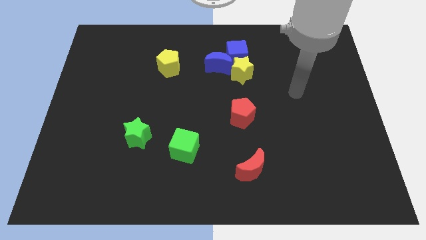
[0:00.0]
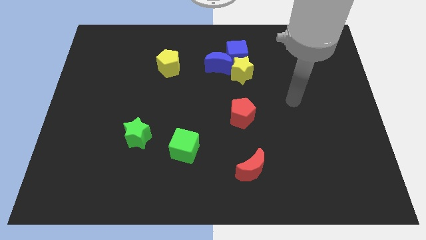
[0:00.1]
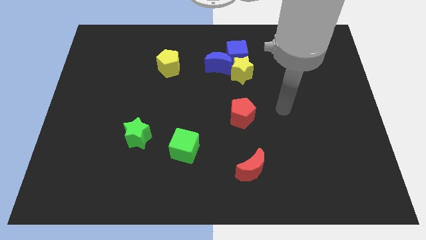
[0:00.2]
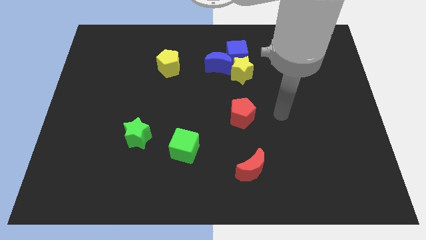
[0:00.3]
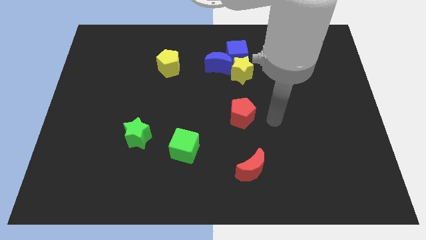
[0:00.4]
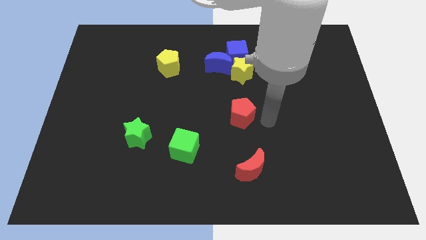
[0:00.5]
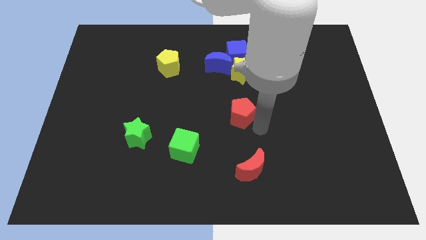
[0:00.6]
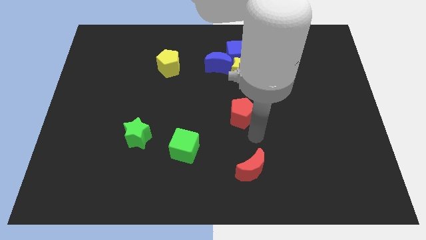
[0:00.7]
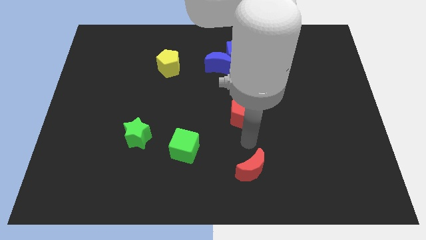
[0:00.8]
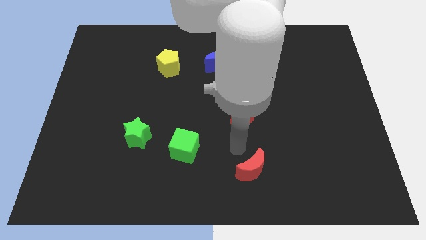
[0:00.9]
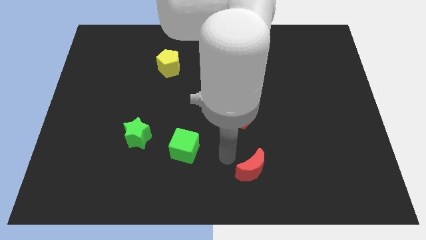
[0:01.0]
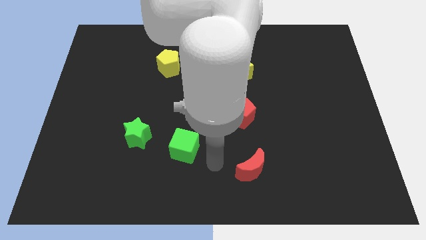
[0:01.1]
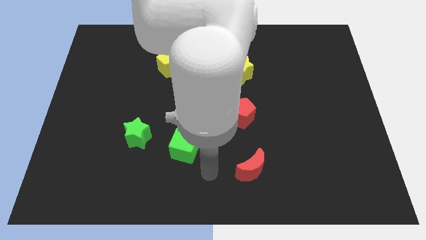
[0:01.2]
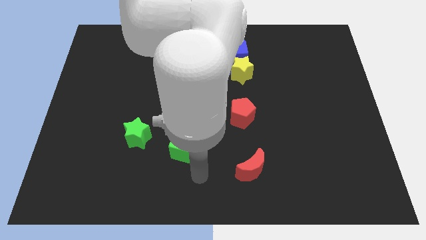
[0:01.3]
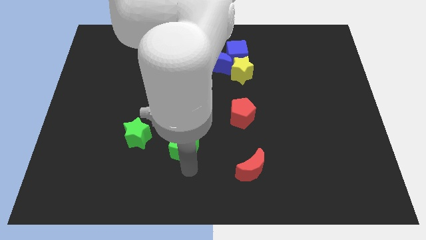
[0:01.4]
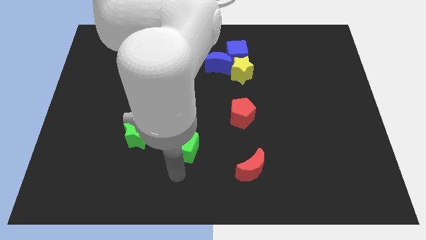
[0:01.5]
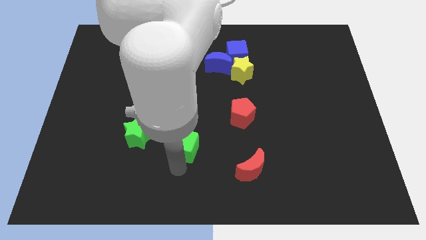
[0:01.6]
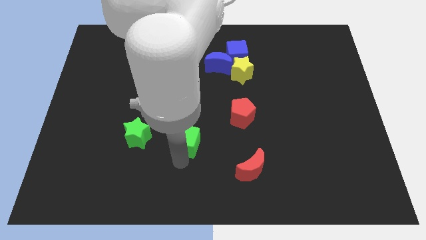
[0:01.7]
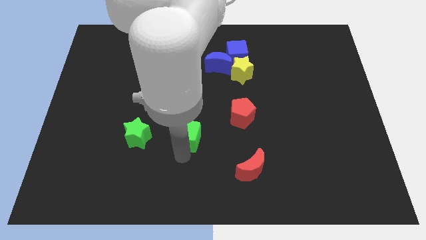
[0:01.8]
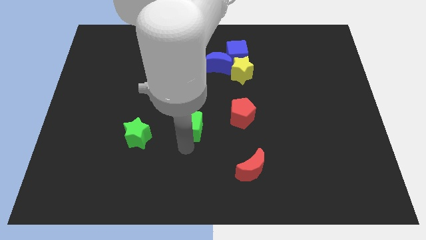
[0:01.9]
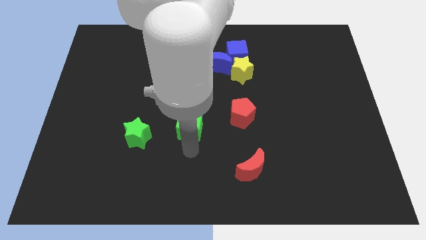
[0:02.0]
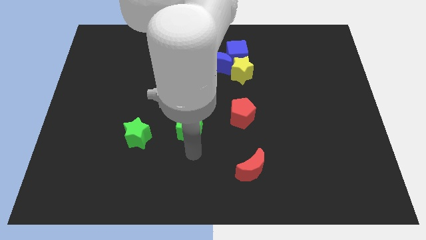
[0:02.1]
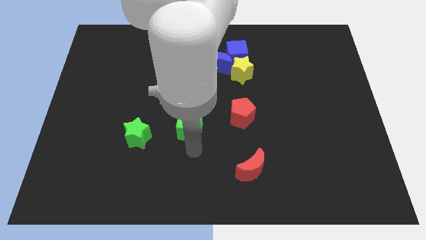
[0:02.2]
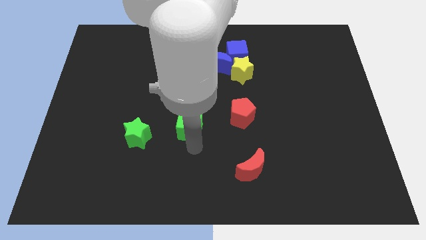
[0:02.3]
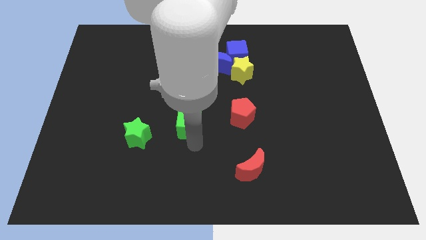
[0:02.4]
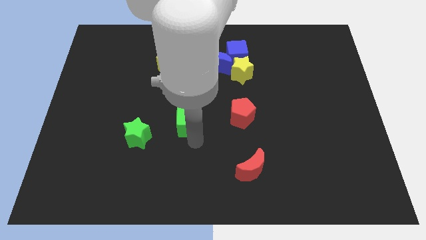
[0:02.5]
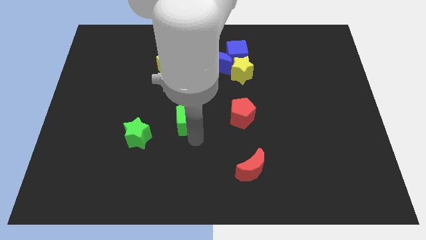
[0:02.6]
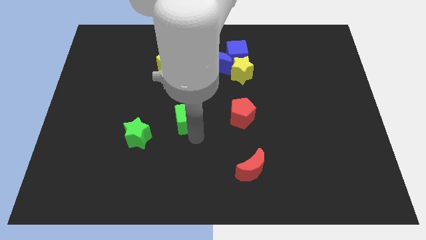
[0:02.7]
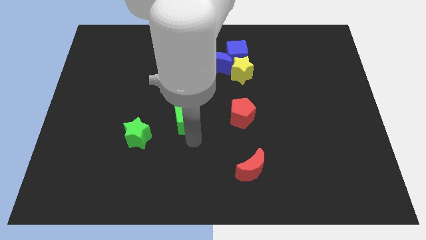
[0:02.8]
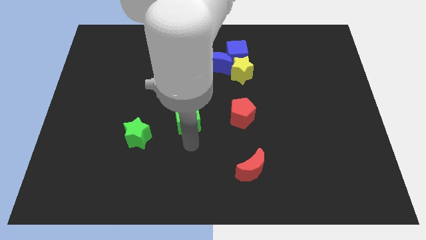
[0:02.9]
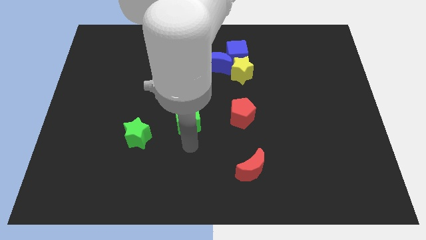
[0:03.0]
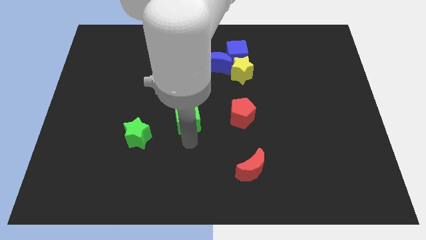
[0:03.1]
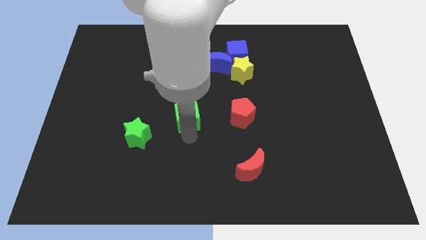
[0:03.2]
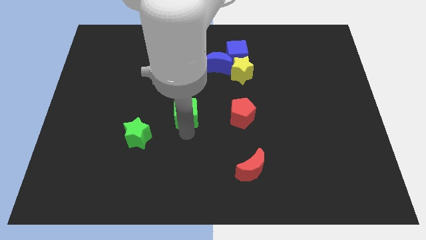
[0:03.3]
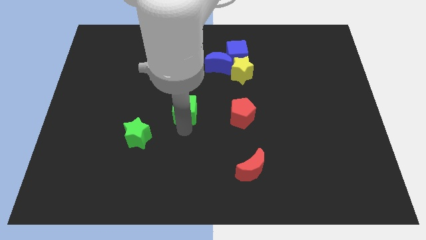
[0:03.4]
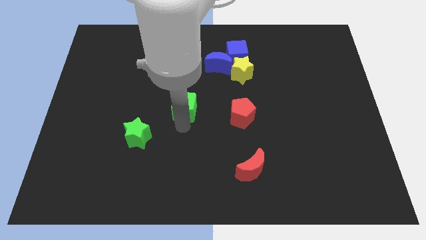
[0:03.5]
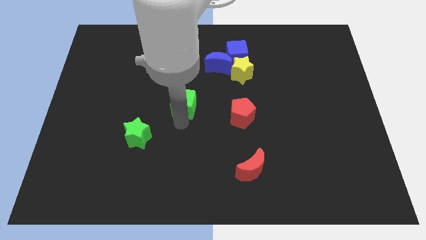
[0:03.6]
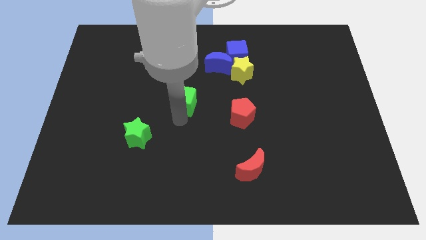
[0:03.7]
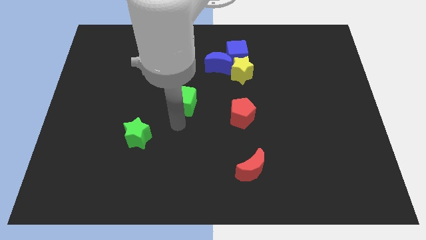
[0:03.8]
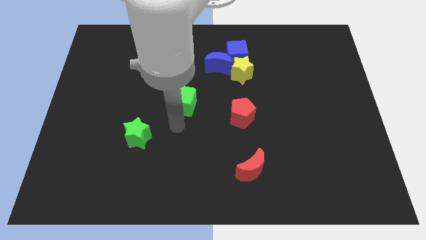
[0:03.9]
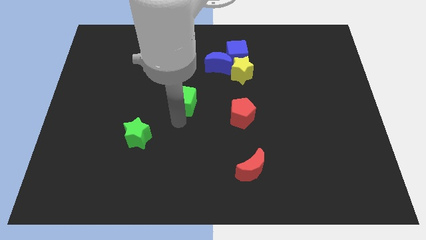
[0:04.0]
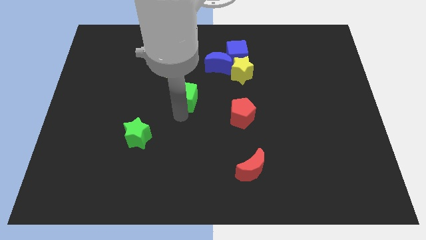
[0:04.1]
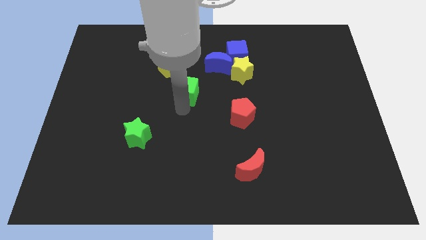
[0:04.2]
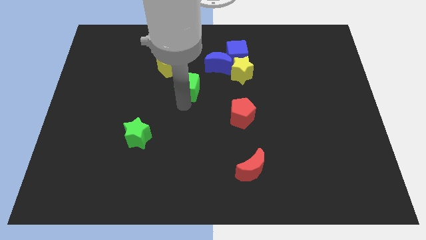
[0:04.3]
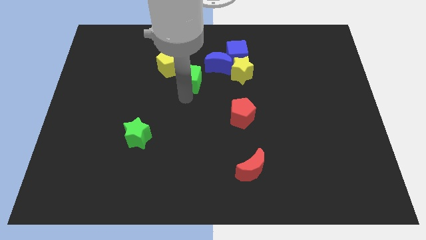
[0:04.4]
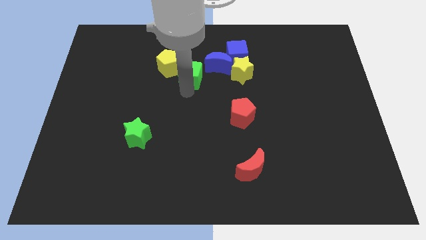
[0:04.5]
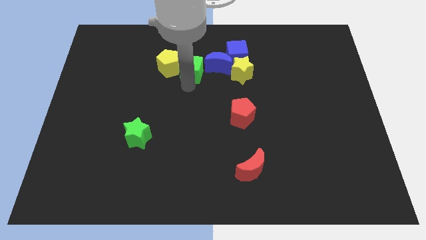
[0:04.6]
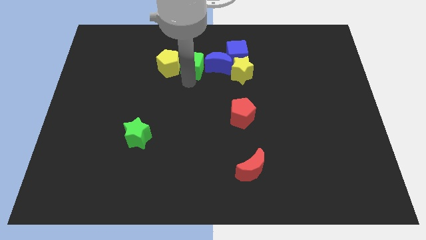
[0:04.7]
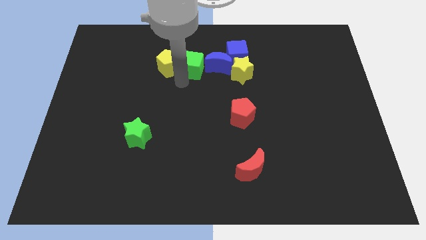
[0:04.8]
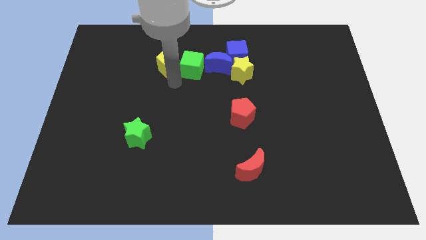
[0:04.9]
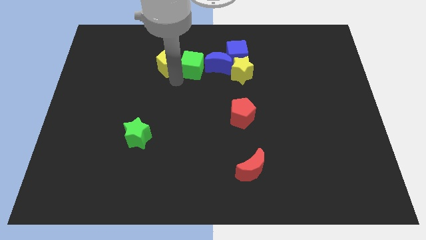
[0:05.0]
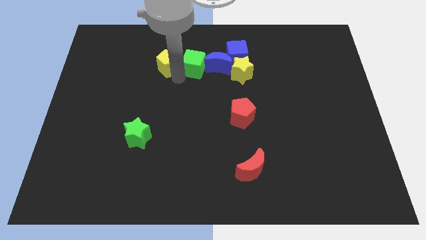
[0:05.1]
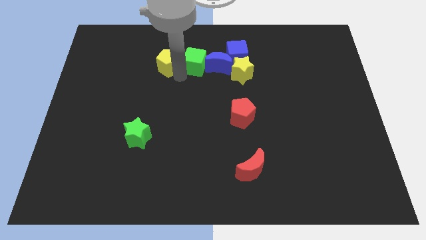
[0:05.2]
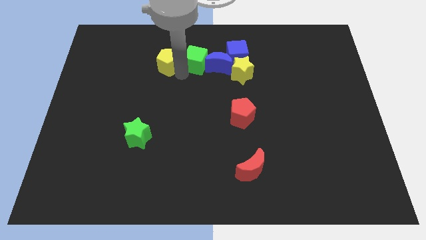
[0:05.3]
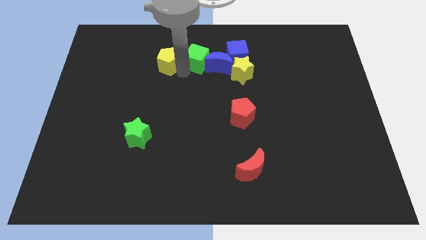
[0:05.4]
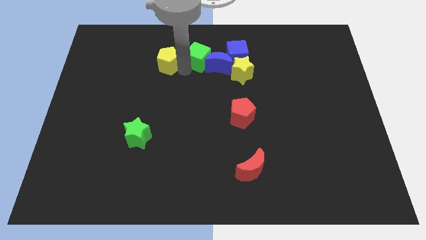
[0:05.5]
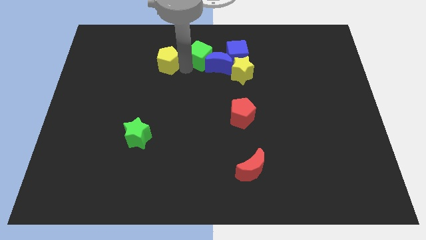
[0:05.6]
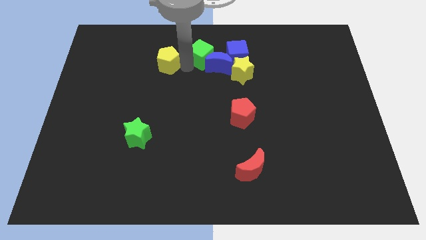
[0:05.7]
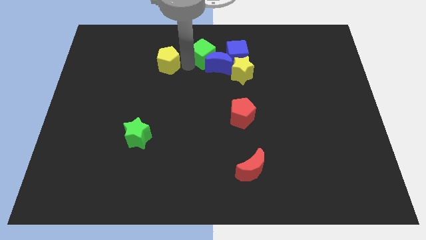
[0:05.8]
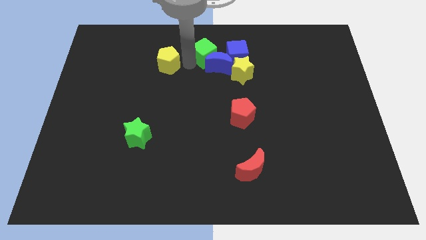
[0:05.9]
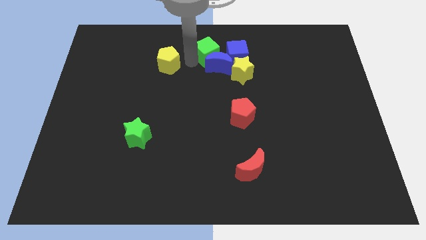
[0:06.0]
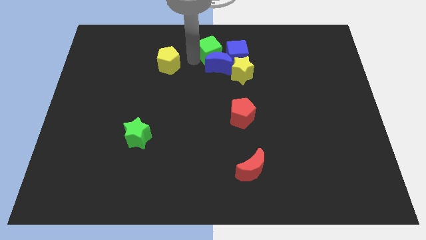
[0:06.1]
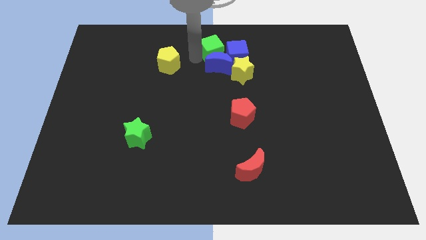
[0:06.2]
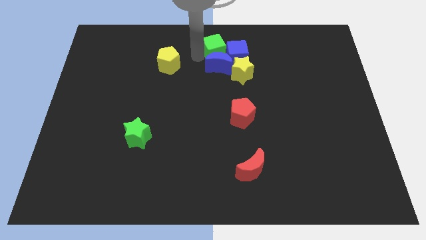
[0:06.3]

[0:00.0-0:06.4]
push the green cube next to the blue cube
